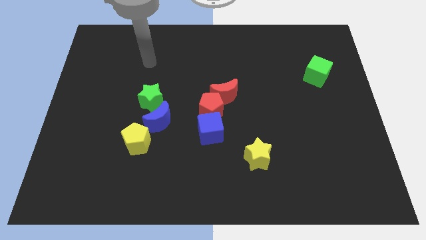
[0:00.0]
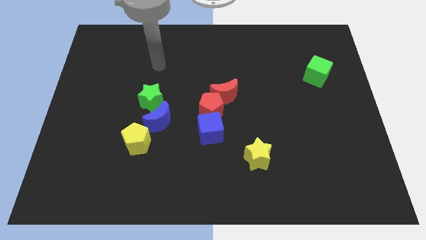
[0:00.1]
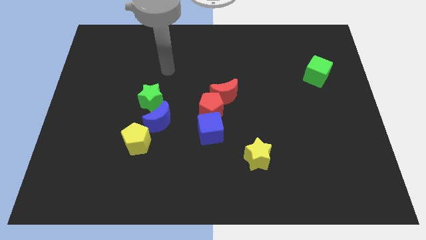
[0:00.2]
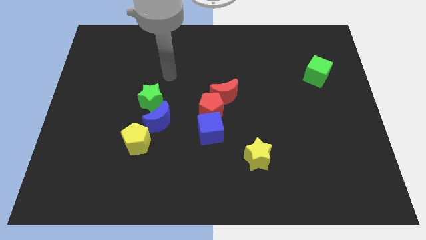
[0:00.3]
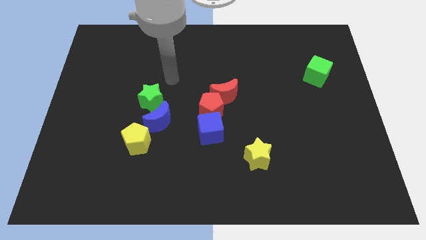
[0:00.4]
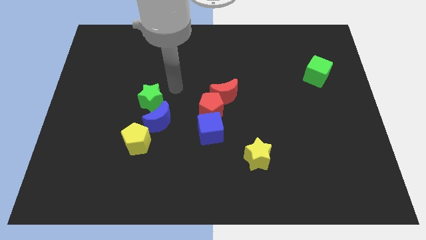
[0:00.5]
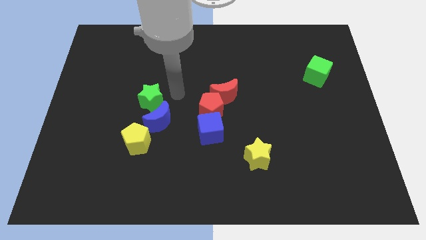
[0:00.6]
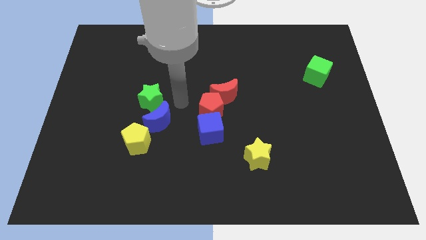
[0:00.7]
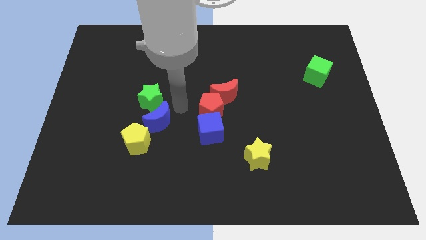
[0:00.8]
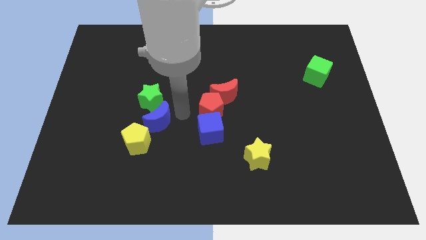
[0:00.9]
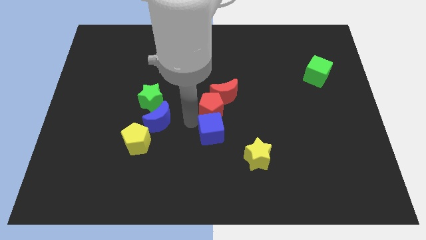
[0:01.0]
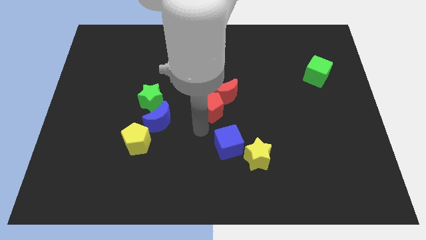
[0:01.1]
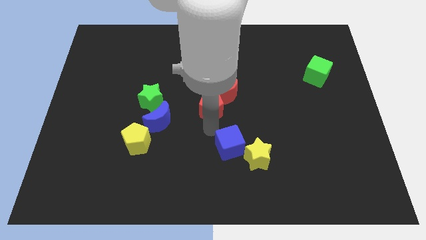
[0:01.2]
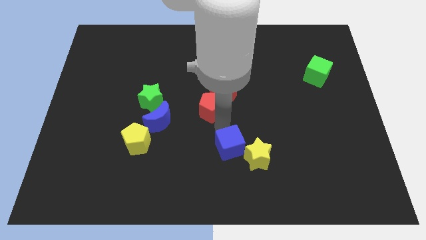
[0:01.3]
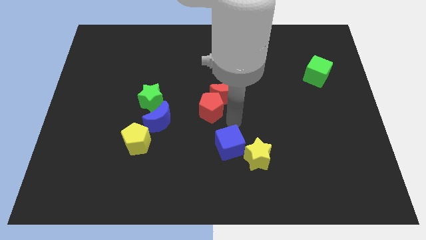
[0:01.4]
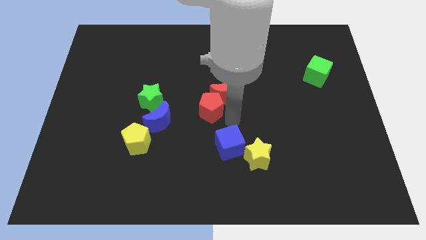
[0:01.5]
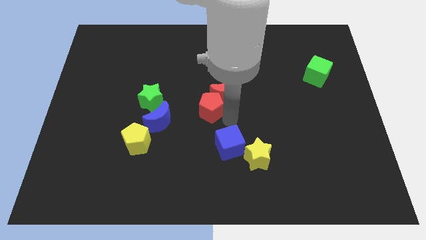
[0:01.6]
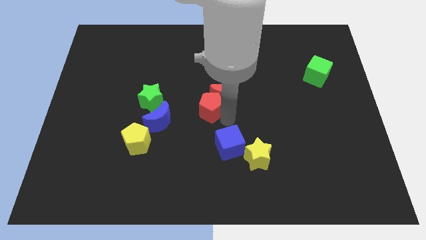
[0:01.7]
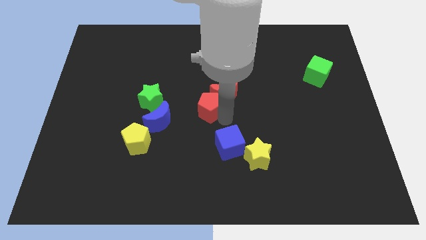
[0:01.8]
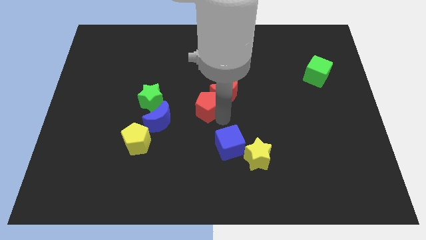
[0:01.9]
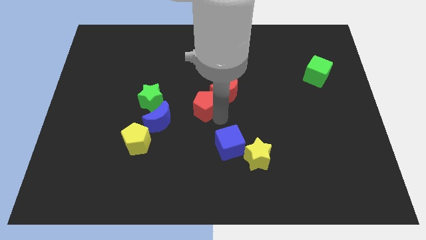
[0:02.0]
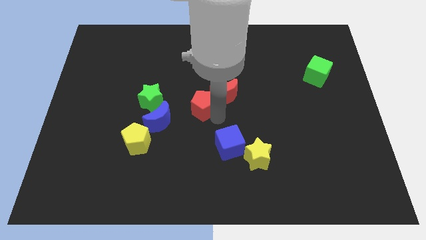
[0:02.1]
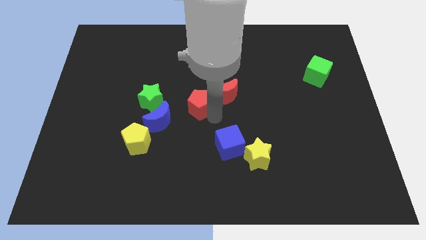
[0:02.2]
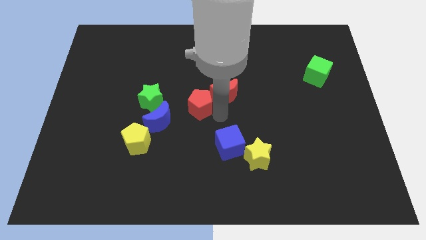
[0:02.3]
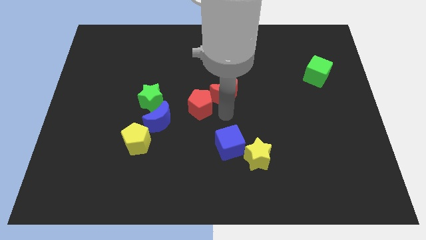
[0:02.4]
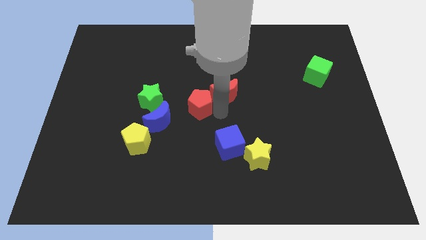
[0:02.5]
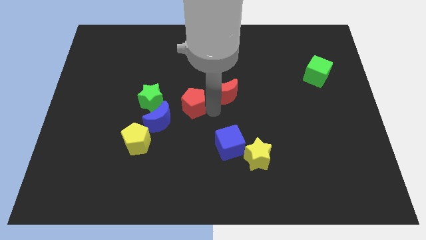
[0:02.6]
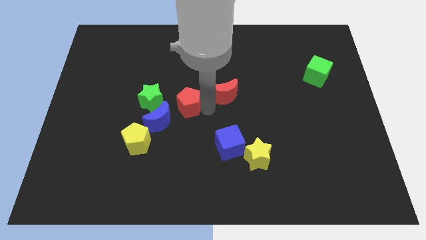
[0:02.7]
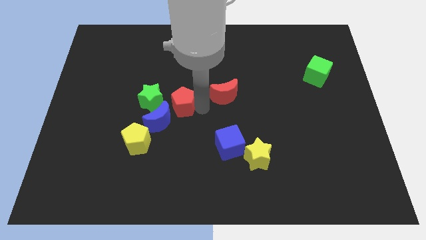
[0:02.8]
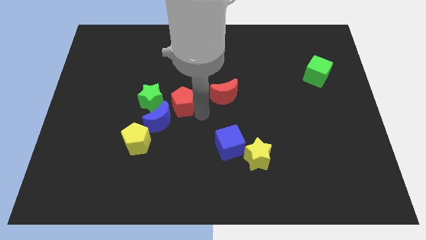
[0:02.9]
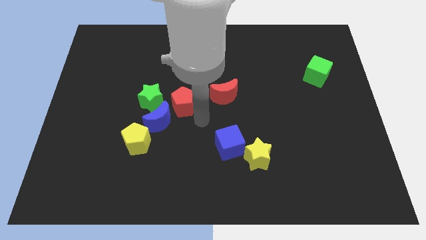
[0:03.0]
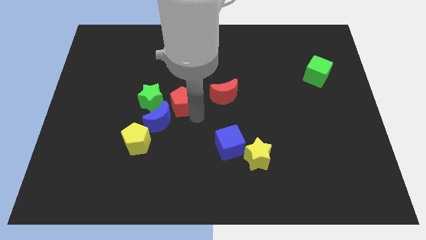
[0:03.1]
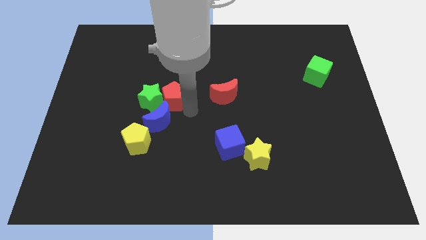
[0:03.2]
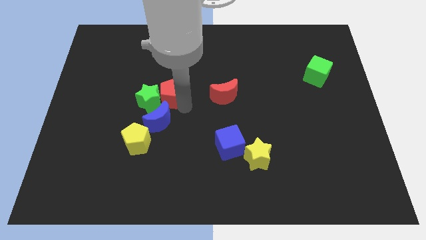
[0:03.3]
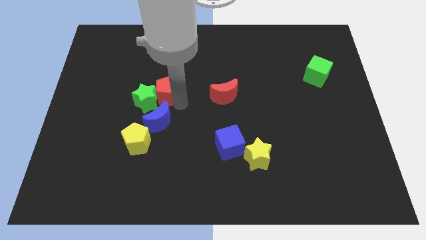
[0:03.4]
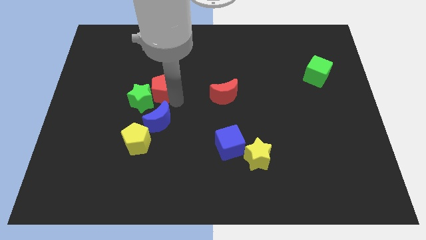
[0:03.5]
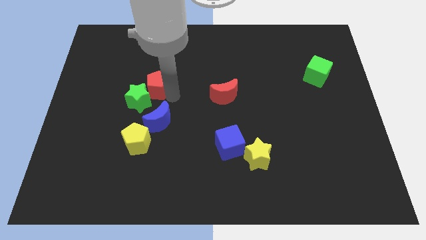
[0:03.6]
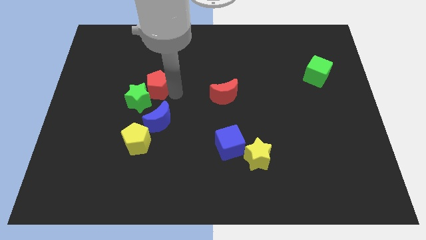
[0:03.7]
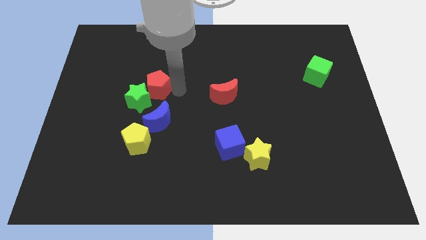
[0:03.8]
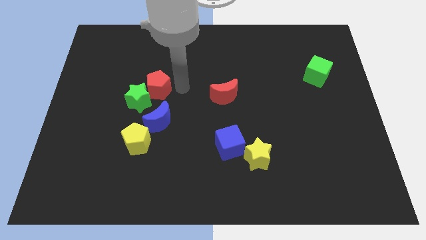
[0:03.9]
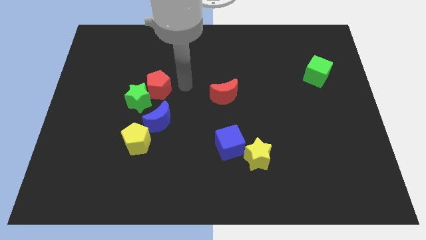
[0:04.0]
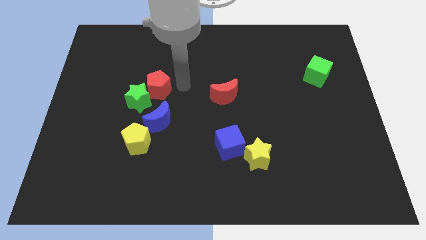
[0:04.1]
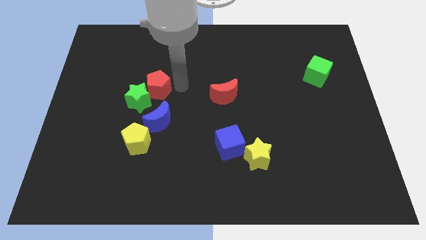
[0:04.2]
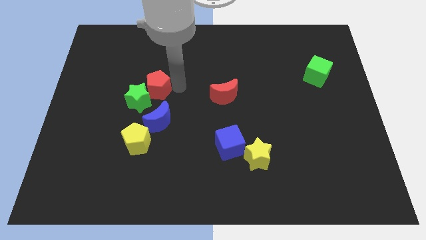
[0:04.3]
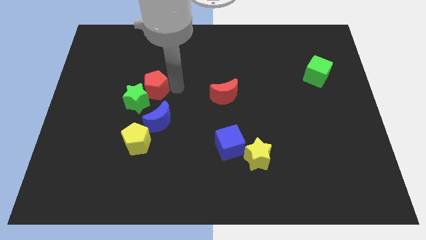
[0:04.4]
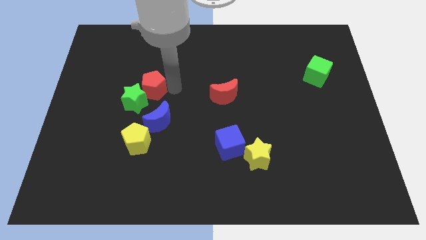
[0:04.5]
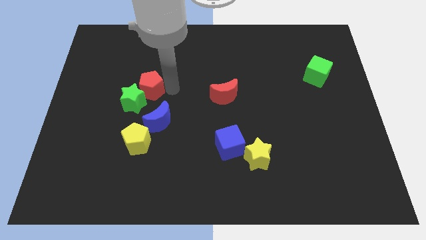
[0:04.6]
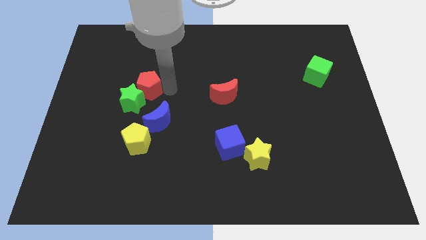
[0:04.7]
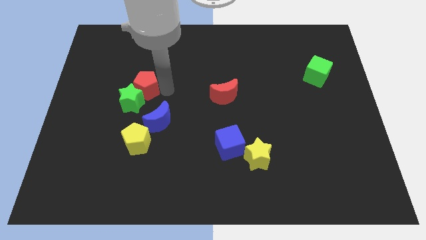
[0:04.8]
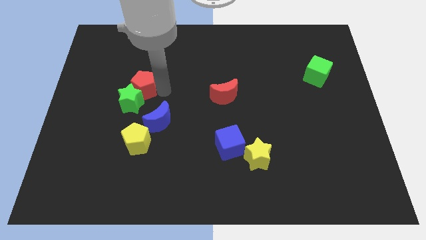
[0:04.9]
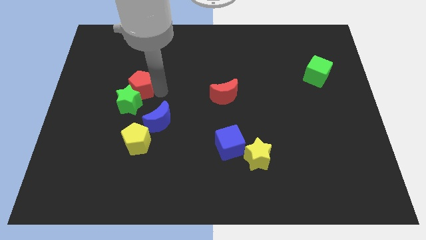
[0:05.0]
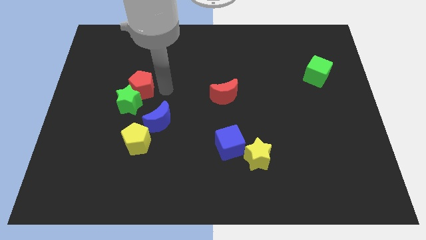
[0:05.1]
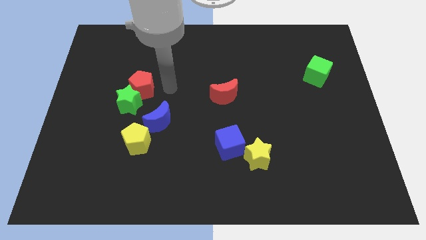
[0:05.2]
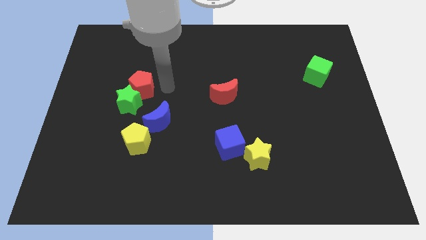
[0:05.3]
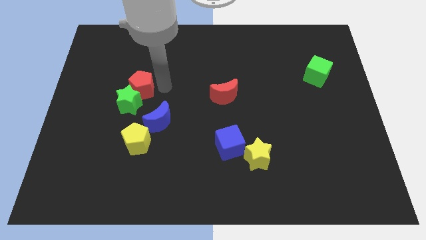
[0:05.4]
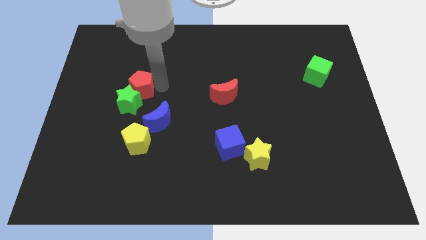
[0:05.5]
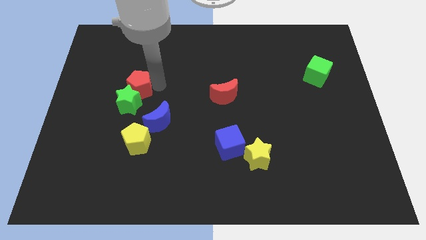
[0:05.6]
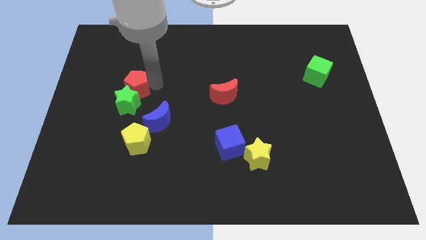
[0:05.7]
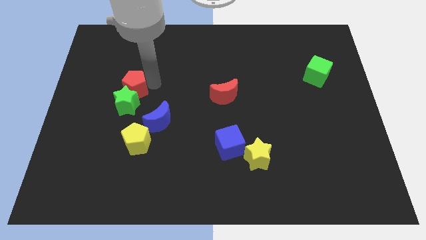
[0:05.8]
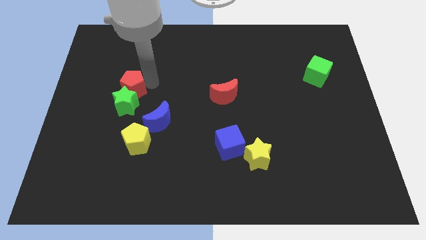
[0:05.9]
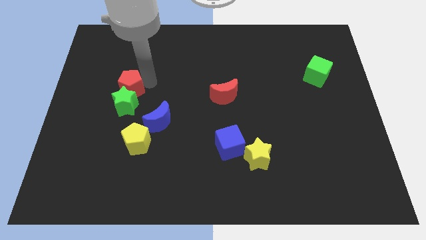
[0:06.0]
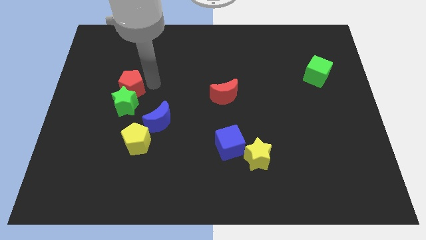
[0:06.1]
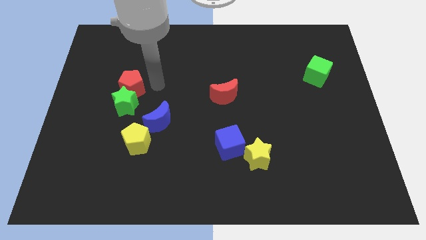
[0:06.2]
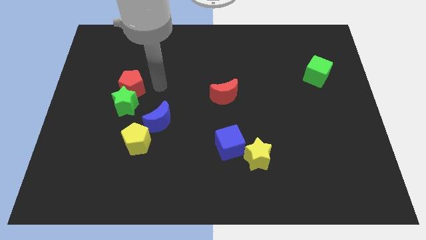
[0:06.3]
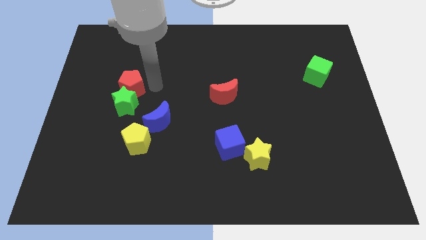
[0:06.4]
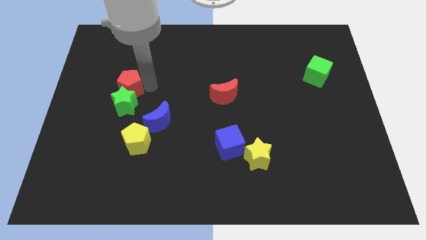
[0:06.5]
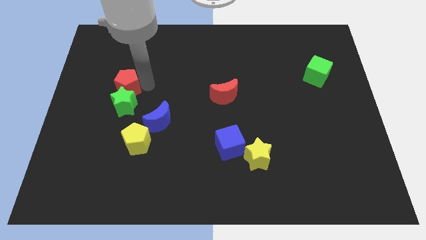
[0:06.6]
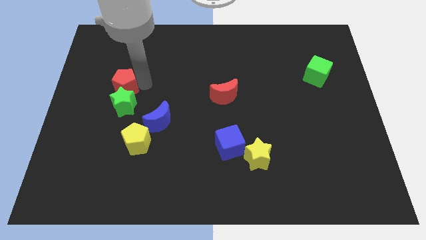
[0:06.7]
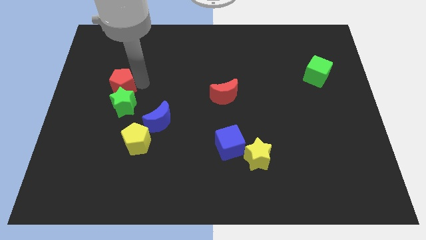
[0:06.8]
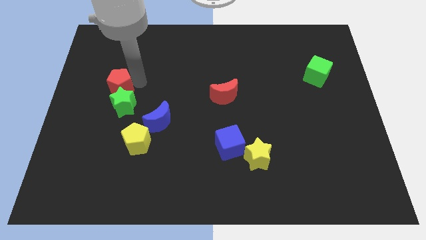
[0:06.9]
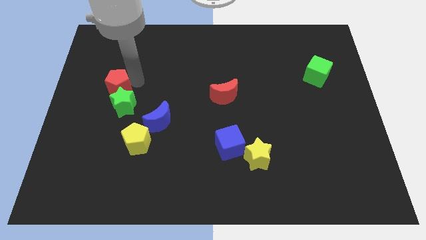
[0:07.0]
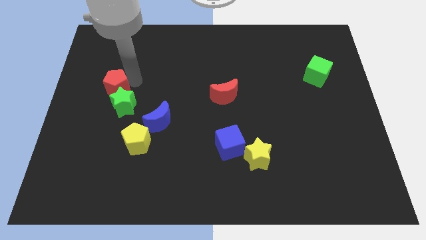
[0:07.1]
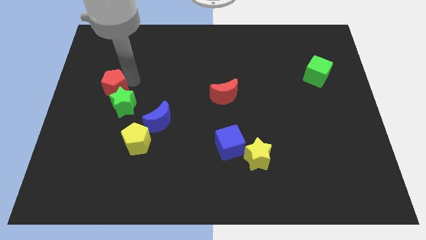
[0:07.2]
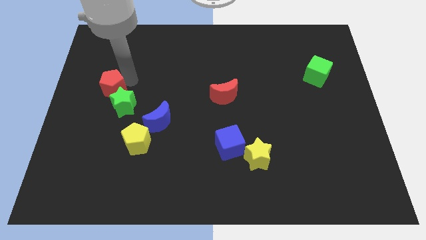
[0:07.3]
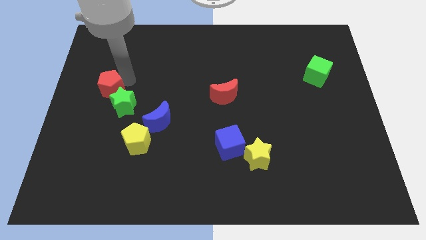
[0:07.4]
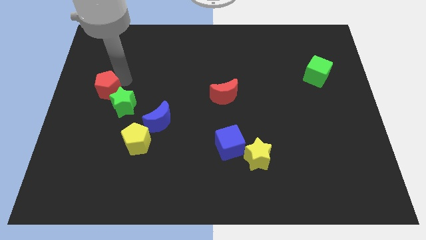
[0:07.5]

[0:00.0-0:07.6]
push the red pentagon to the center left
